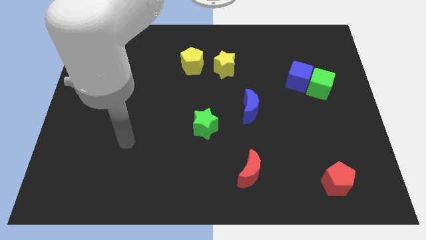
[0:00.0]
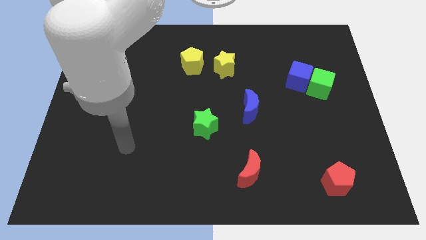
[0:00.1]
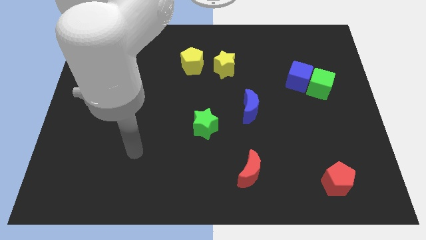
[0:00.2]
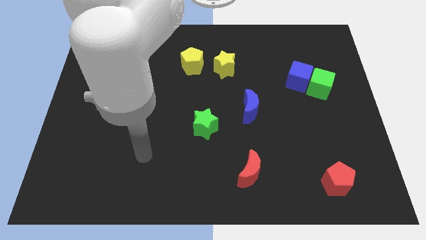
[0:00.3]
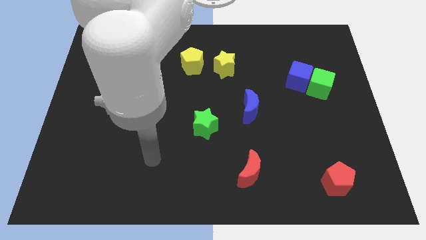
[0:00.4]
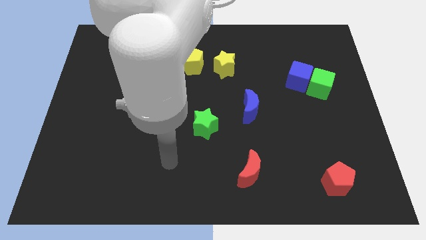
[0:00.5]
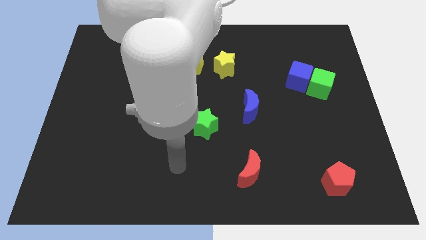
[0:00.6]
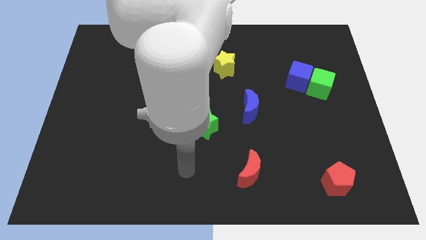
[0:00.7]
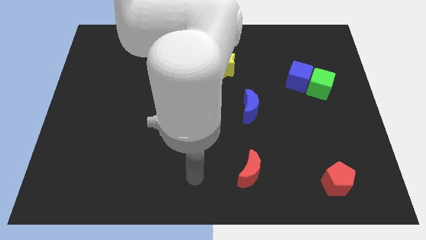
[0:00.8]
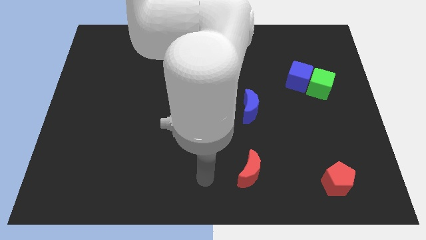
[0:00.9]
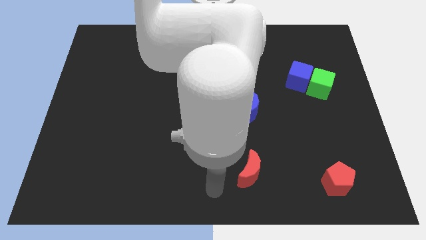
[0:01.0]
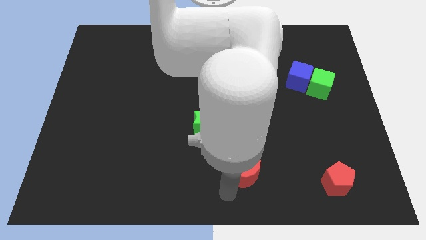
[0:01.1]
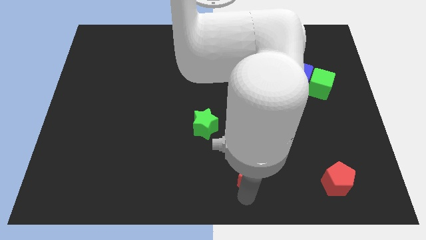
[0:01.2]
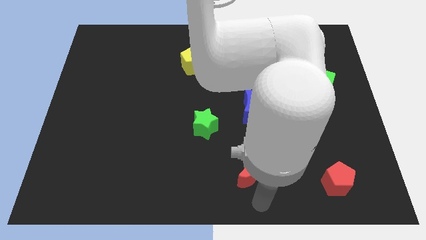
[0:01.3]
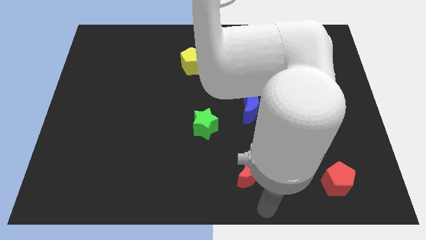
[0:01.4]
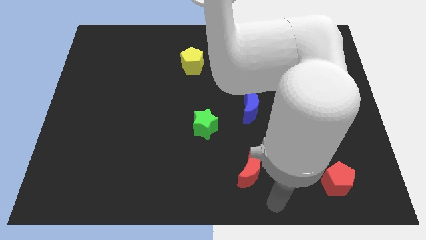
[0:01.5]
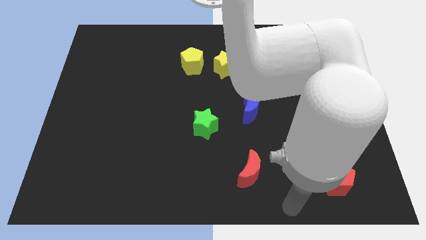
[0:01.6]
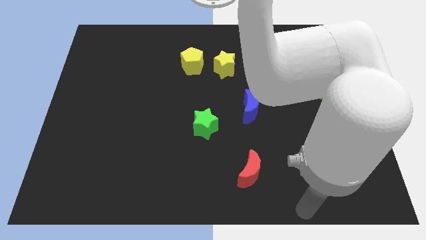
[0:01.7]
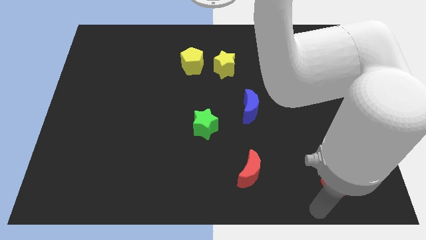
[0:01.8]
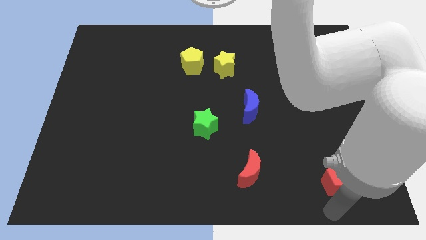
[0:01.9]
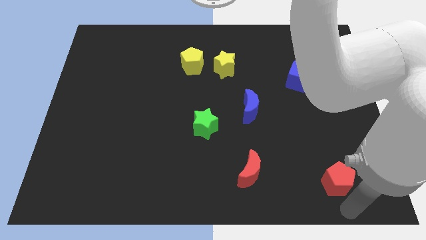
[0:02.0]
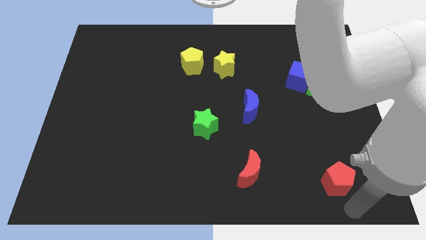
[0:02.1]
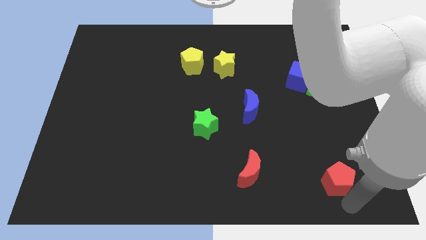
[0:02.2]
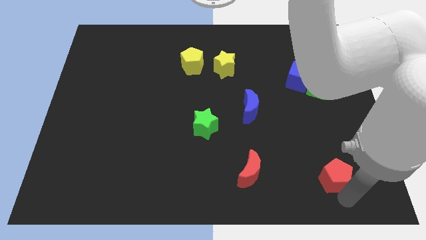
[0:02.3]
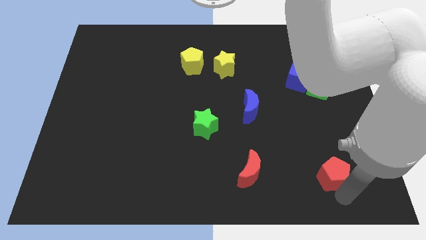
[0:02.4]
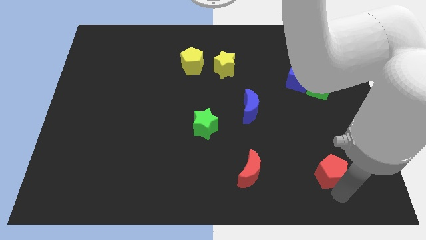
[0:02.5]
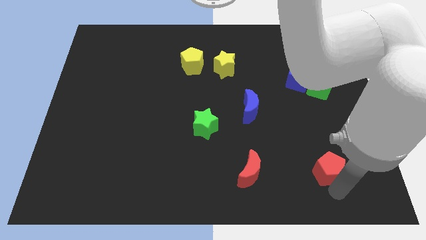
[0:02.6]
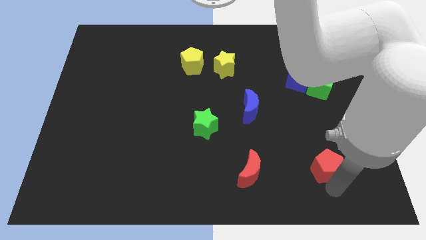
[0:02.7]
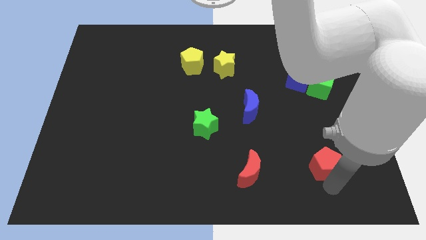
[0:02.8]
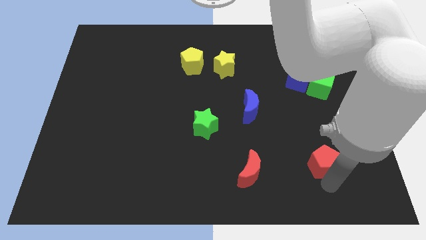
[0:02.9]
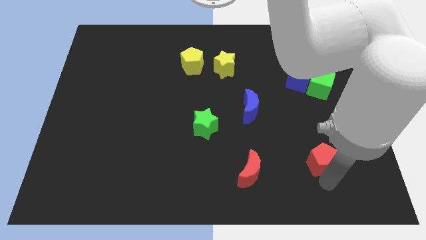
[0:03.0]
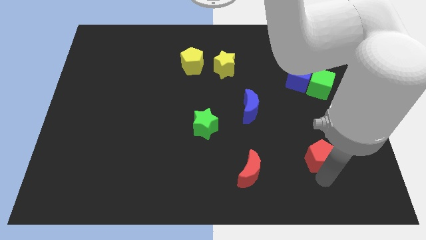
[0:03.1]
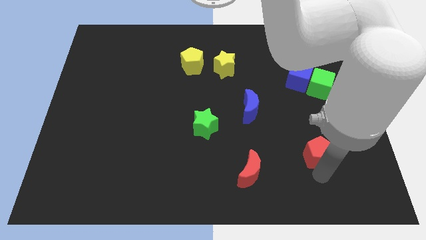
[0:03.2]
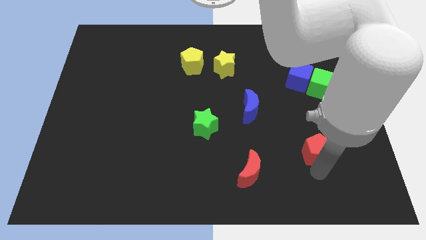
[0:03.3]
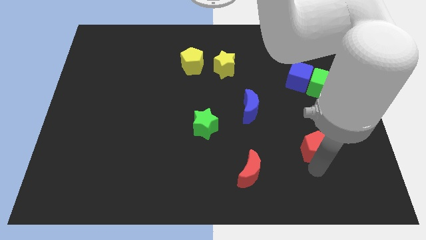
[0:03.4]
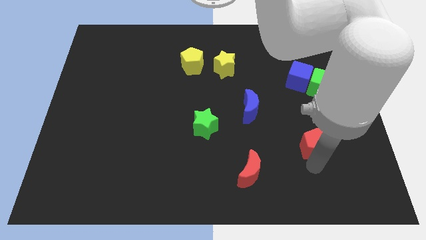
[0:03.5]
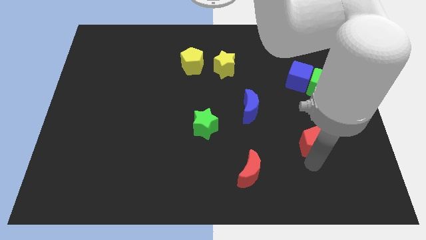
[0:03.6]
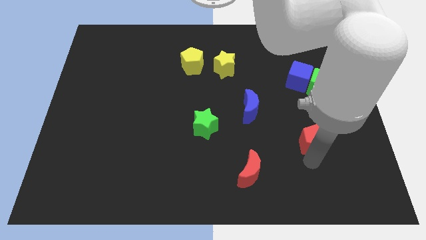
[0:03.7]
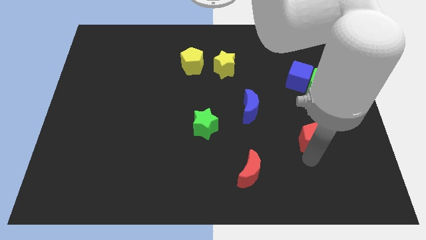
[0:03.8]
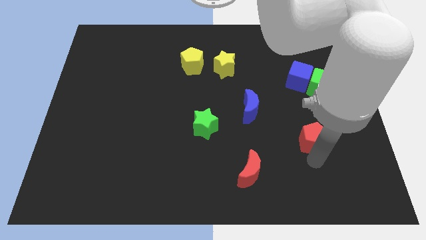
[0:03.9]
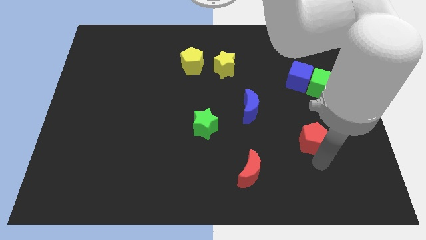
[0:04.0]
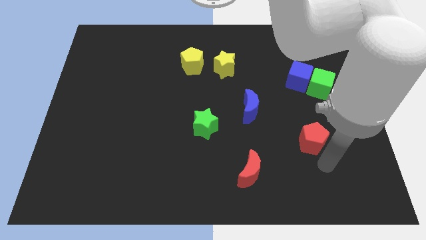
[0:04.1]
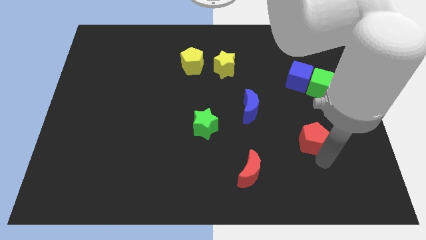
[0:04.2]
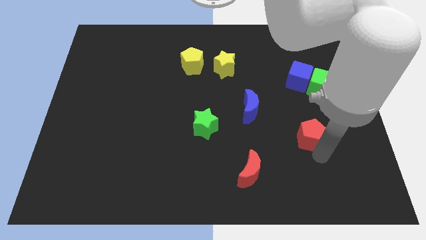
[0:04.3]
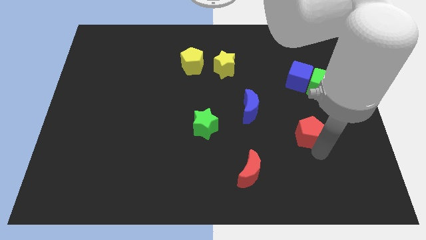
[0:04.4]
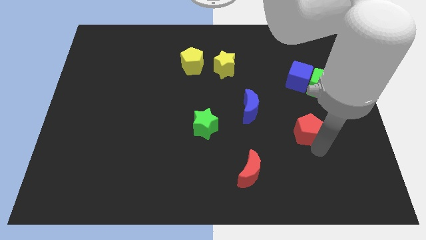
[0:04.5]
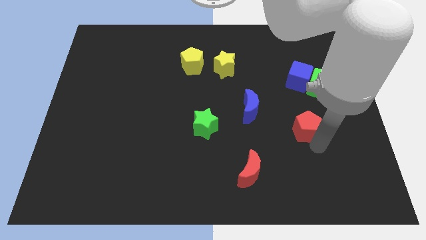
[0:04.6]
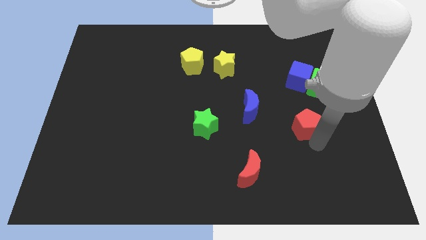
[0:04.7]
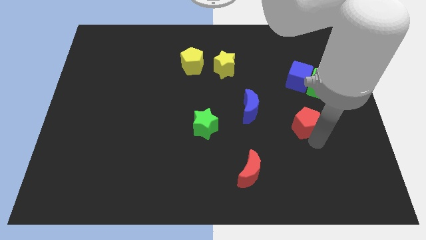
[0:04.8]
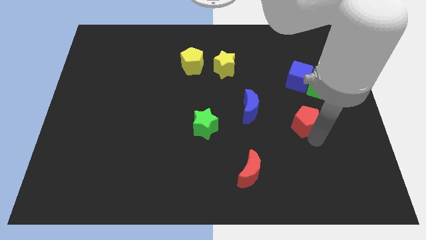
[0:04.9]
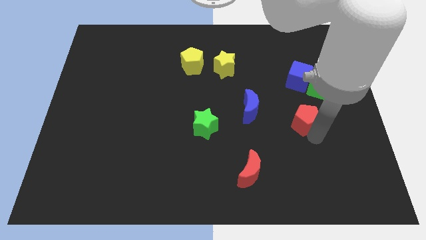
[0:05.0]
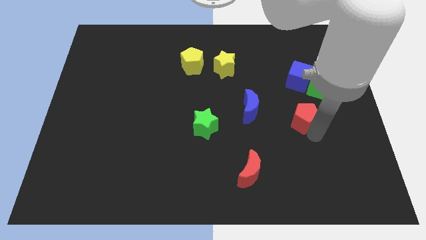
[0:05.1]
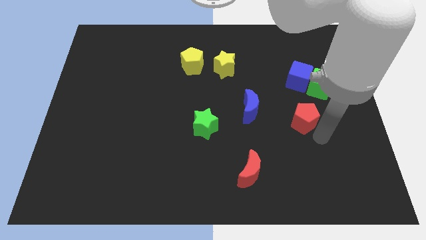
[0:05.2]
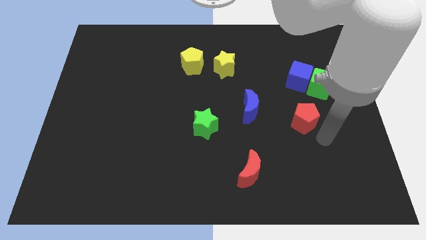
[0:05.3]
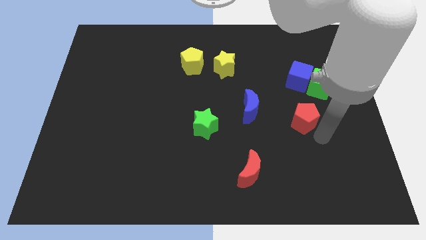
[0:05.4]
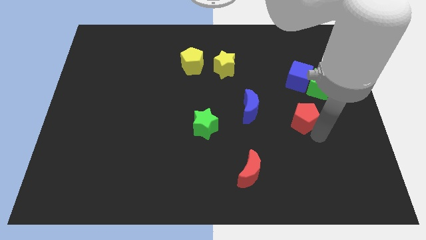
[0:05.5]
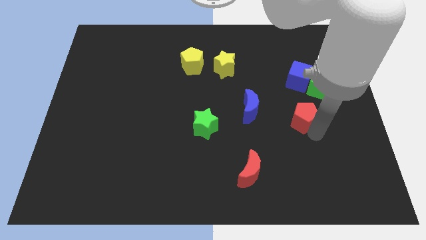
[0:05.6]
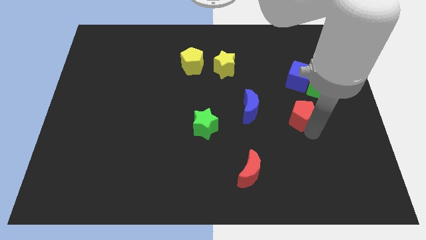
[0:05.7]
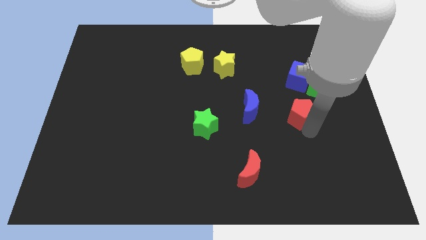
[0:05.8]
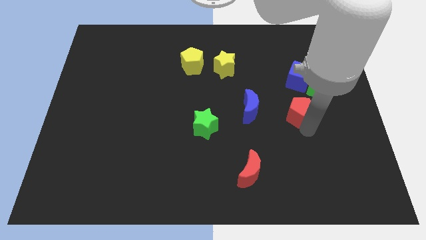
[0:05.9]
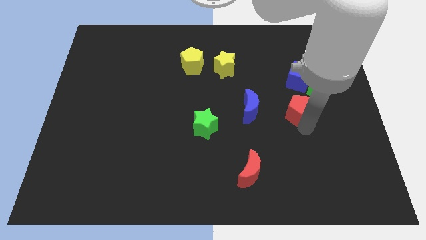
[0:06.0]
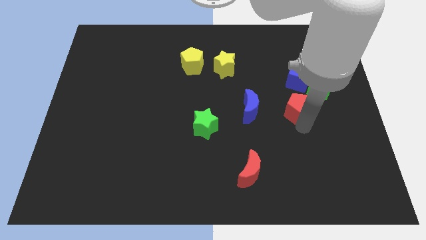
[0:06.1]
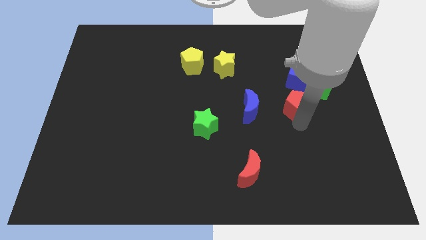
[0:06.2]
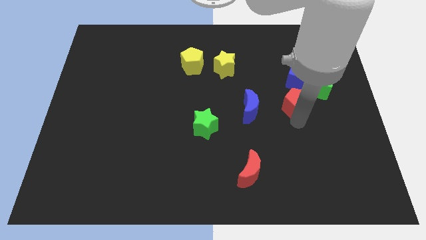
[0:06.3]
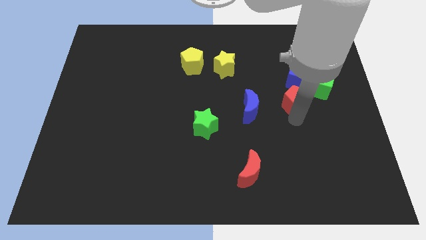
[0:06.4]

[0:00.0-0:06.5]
move the red pentagon just left of the green cube
